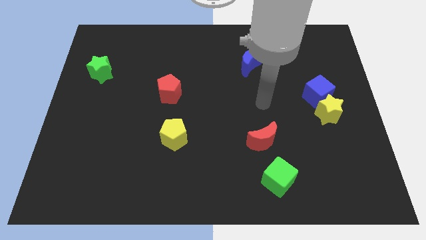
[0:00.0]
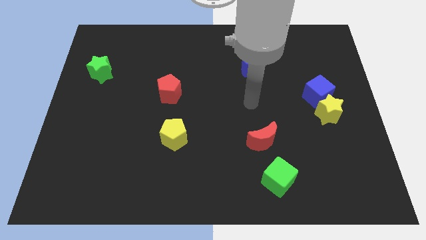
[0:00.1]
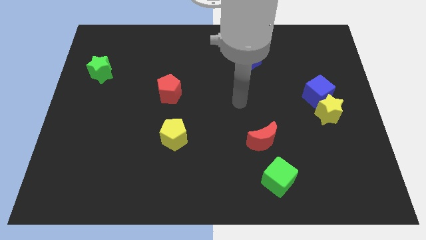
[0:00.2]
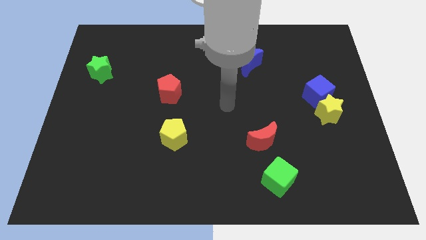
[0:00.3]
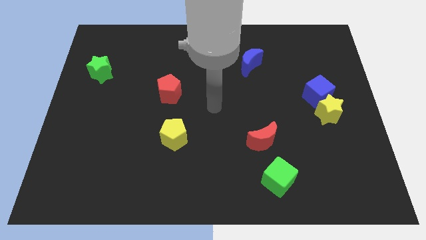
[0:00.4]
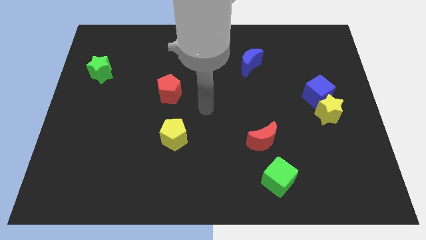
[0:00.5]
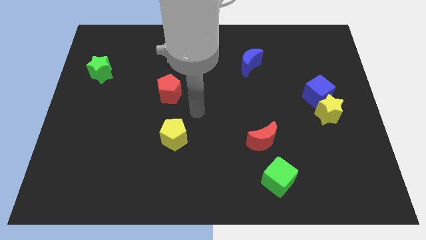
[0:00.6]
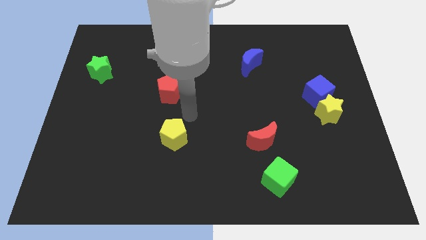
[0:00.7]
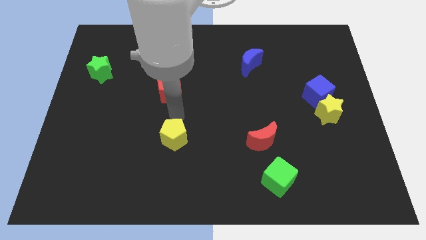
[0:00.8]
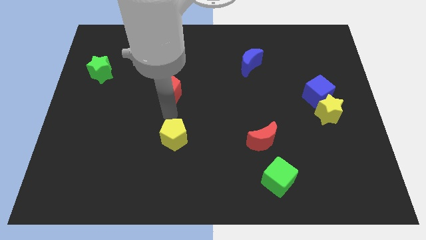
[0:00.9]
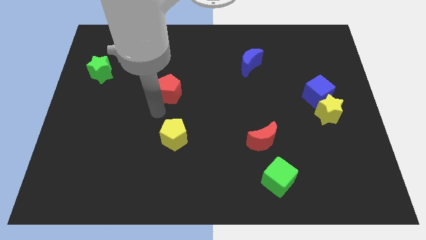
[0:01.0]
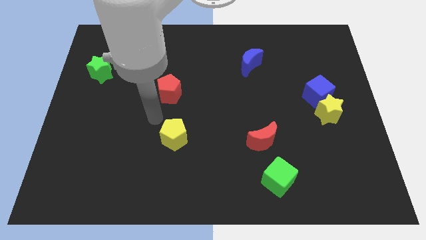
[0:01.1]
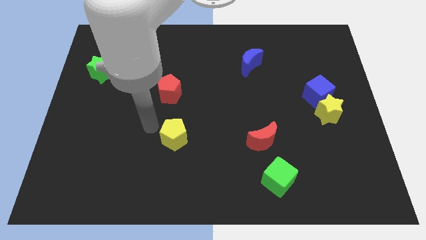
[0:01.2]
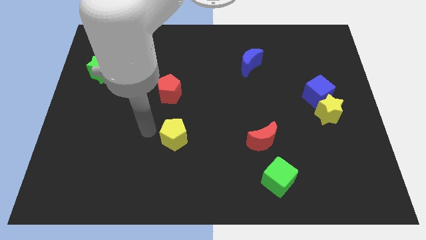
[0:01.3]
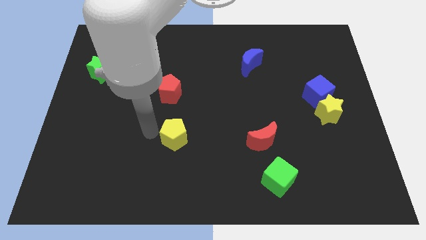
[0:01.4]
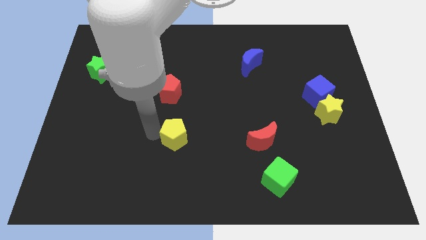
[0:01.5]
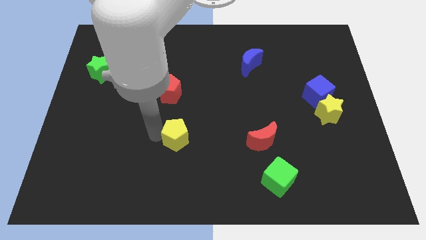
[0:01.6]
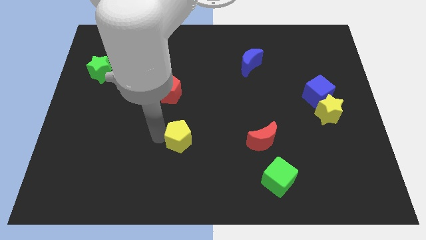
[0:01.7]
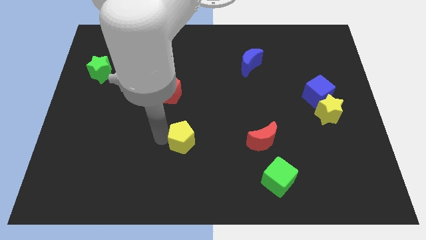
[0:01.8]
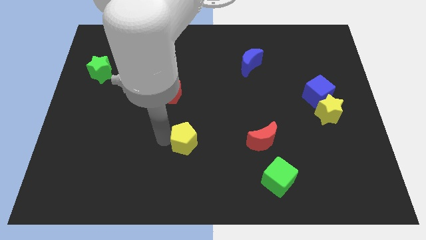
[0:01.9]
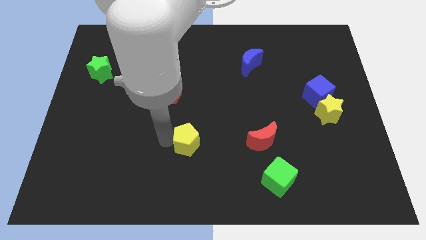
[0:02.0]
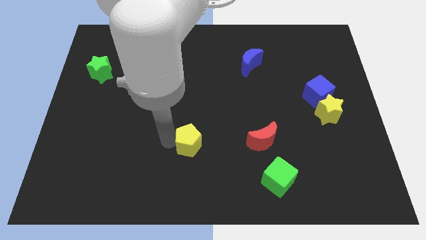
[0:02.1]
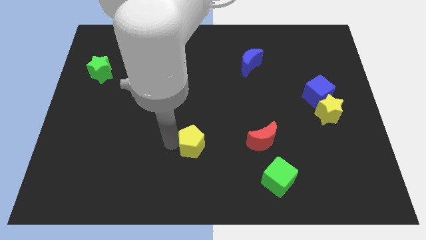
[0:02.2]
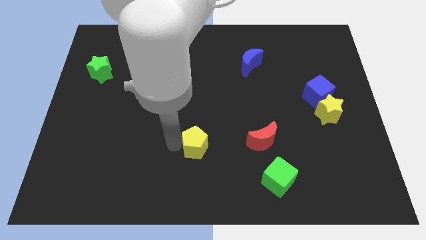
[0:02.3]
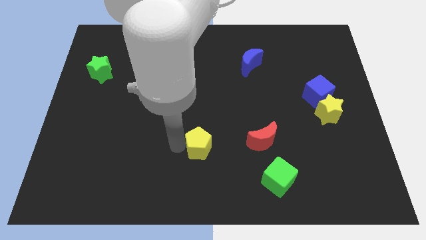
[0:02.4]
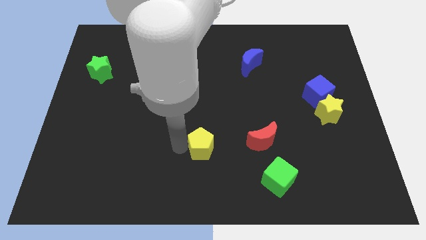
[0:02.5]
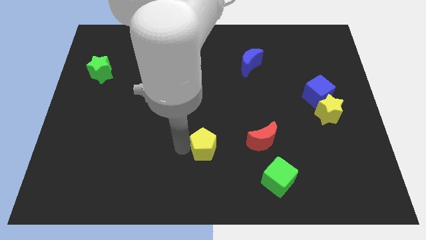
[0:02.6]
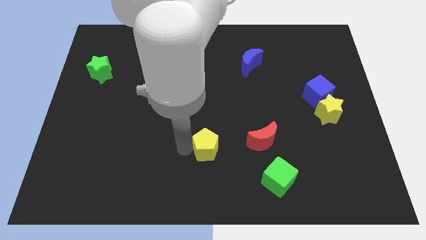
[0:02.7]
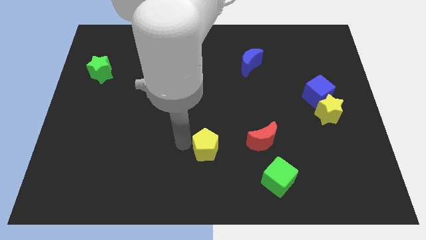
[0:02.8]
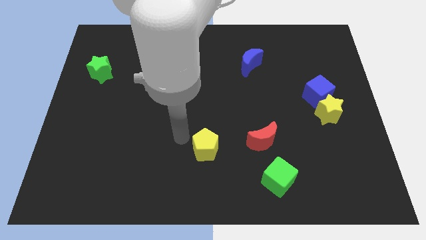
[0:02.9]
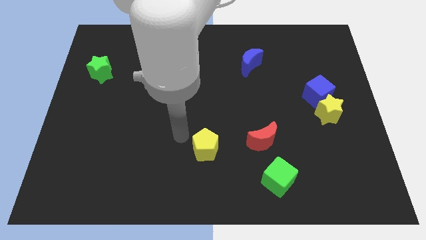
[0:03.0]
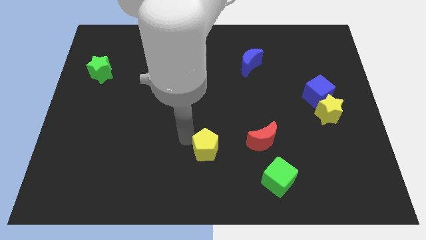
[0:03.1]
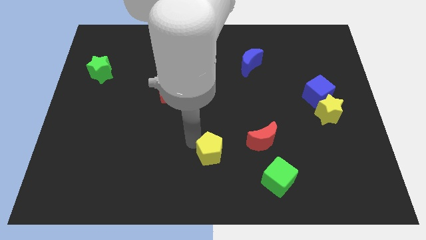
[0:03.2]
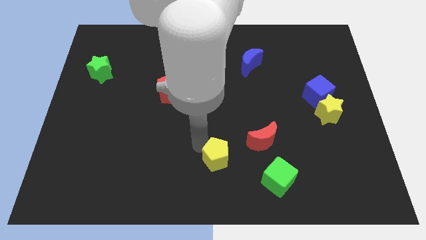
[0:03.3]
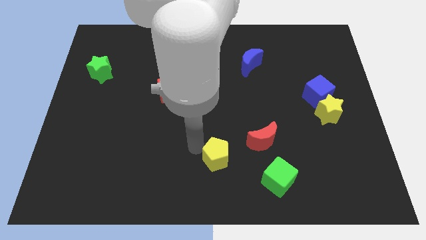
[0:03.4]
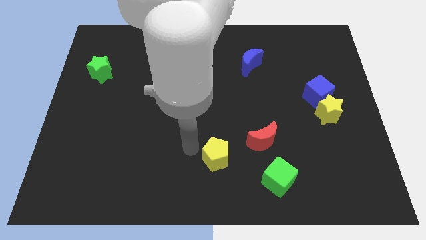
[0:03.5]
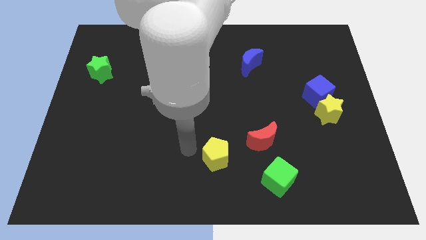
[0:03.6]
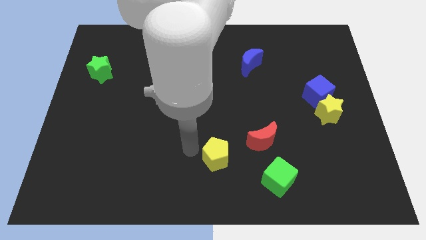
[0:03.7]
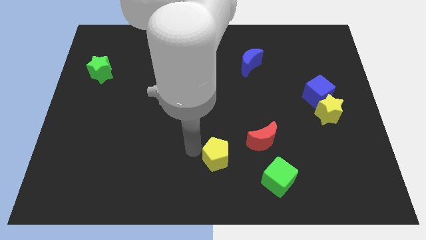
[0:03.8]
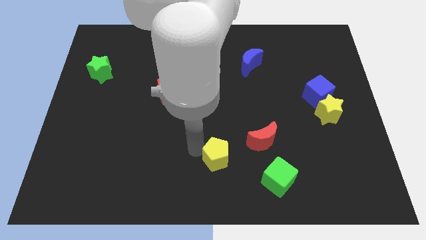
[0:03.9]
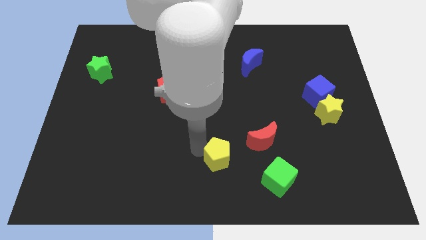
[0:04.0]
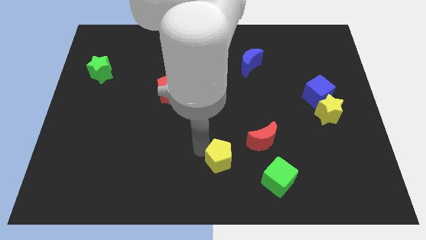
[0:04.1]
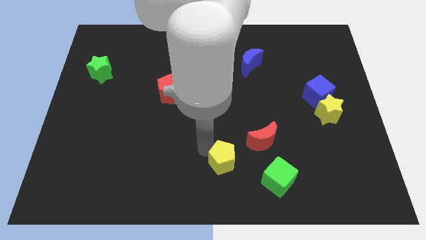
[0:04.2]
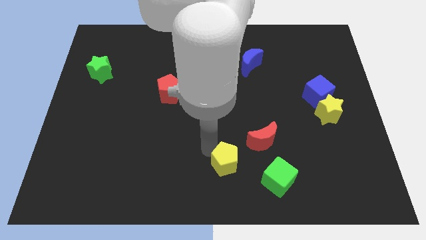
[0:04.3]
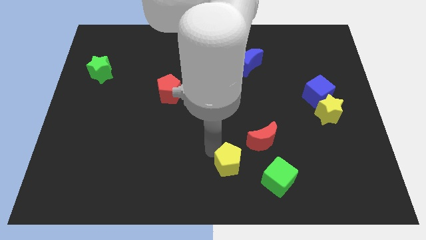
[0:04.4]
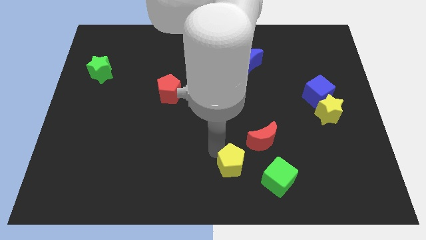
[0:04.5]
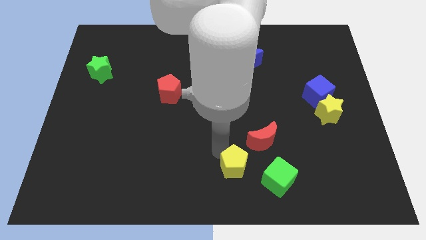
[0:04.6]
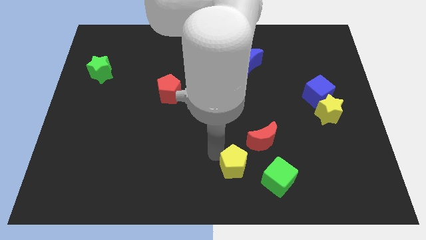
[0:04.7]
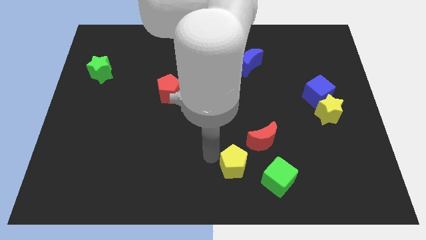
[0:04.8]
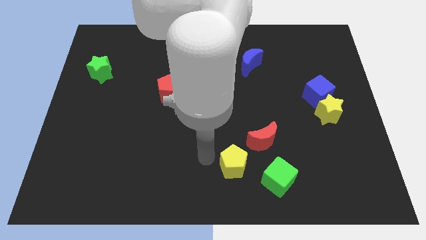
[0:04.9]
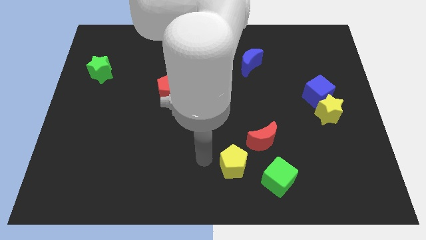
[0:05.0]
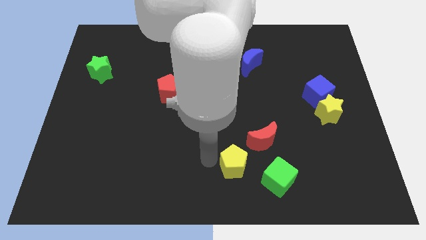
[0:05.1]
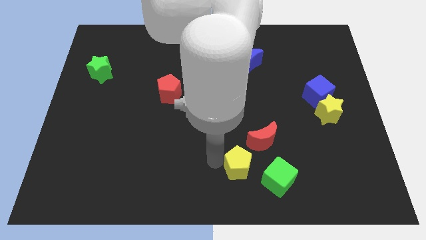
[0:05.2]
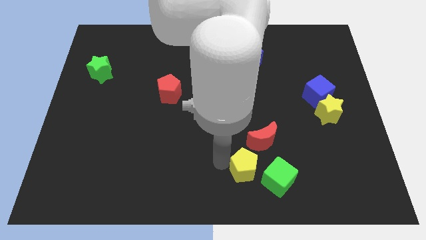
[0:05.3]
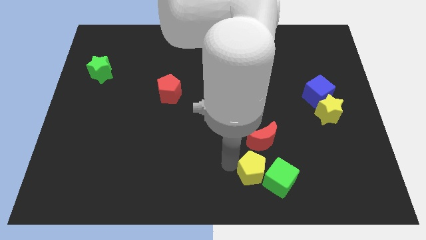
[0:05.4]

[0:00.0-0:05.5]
put the yellow pentagon to the green cube

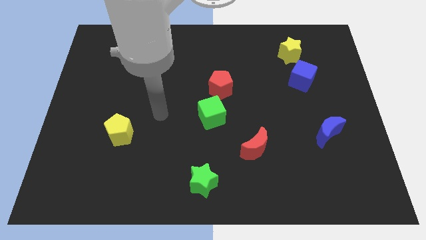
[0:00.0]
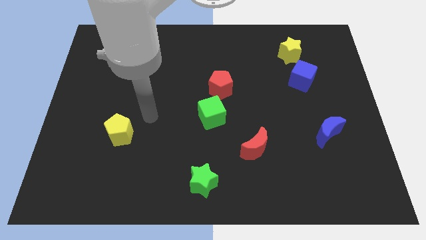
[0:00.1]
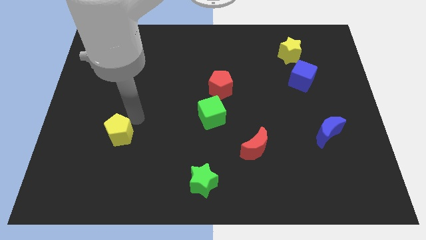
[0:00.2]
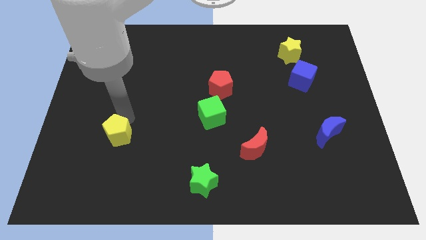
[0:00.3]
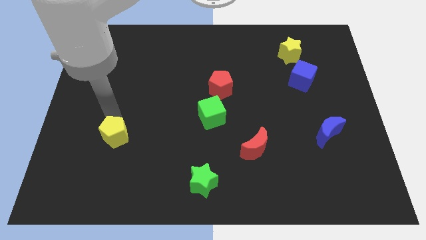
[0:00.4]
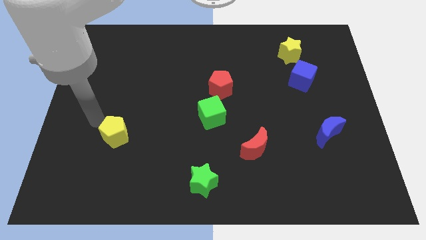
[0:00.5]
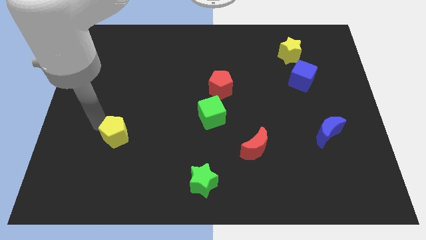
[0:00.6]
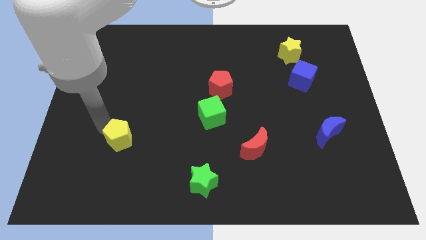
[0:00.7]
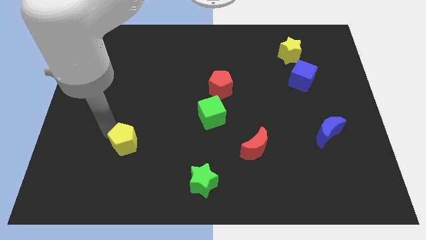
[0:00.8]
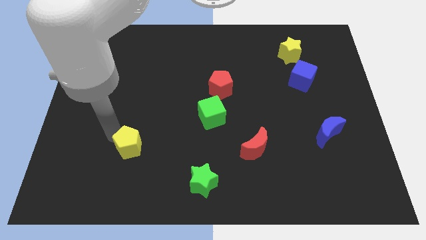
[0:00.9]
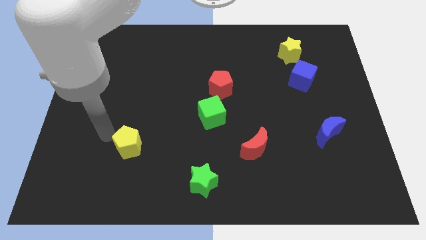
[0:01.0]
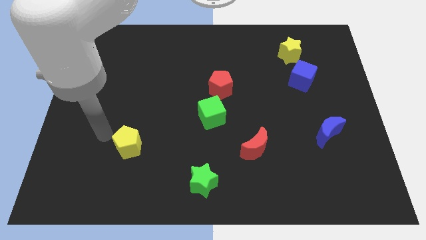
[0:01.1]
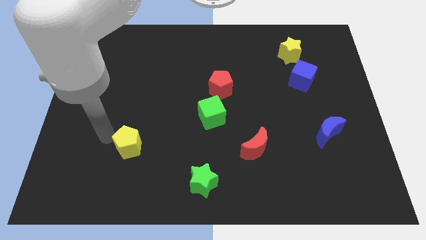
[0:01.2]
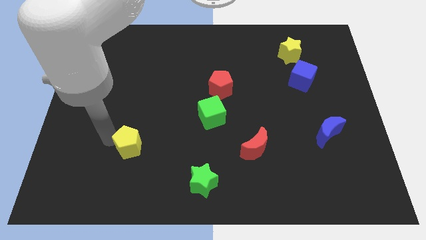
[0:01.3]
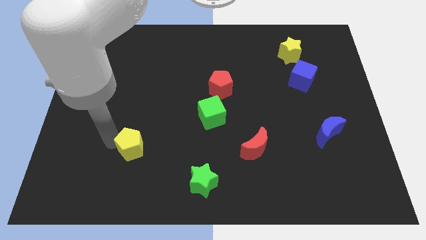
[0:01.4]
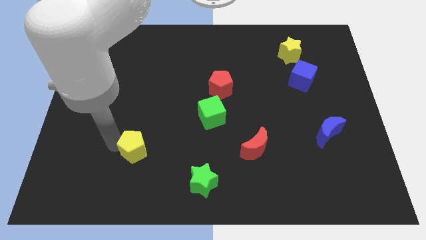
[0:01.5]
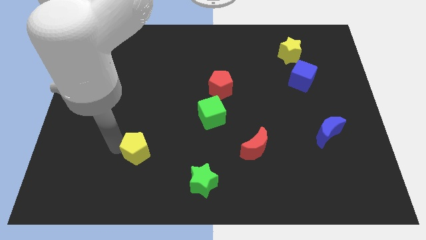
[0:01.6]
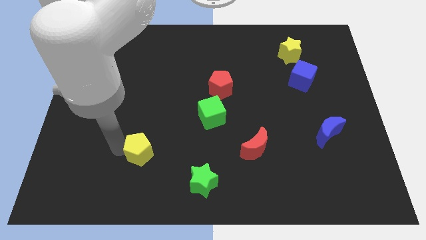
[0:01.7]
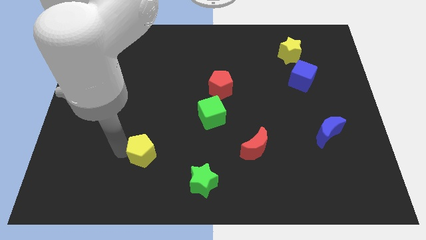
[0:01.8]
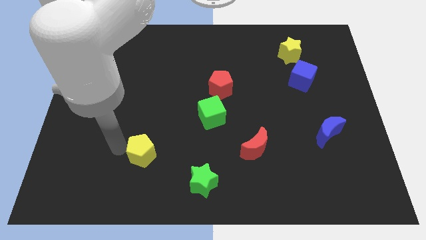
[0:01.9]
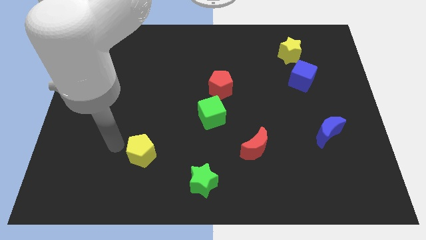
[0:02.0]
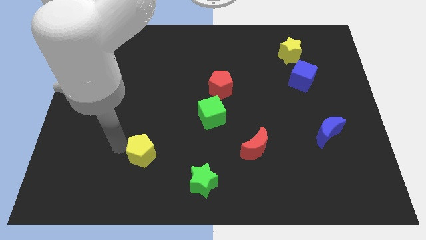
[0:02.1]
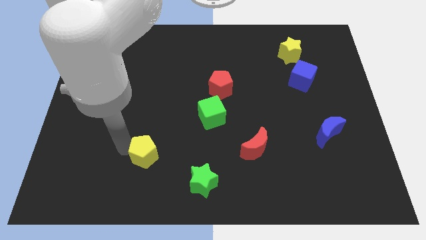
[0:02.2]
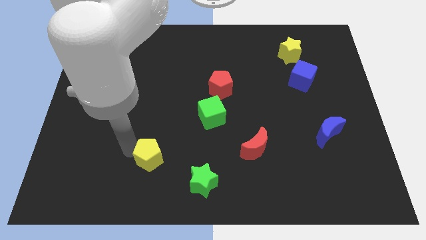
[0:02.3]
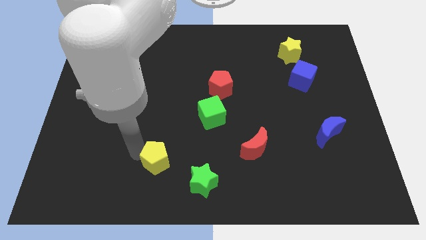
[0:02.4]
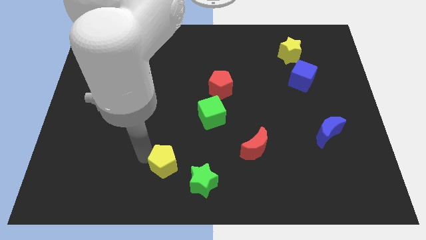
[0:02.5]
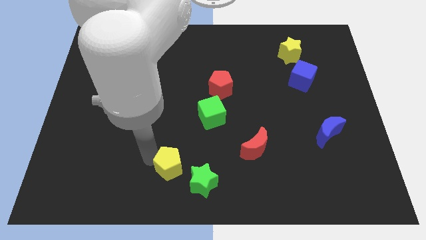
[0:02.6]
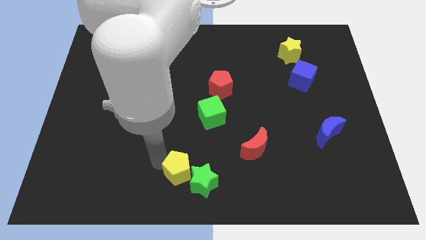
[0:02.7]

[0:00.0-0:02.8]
put the yellow pentagon next to the green star

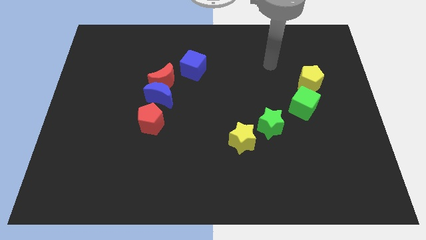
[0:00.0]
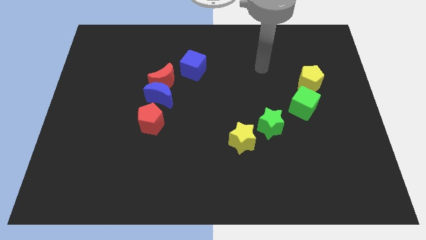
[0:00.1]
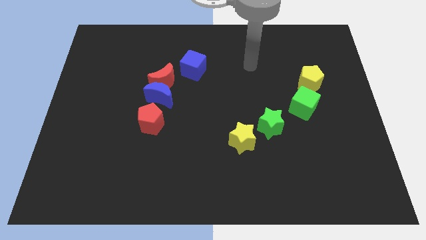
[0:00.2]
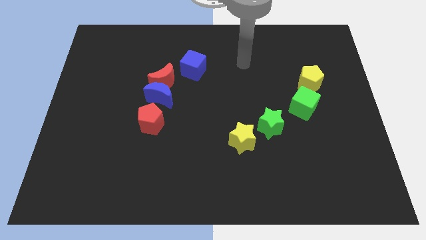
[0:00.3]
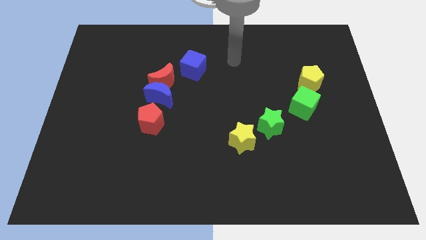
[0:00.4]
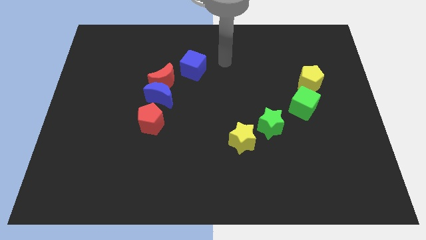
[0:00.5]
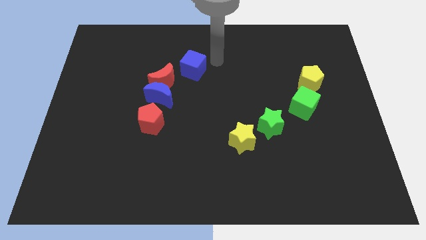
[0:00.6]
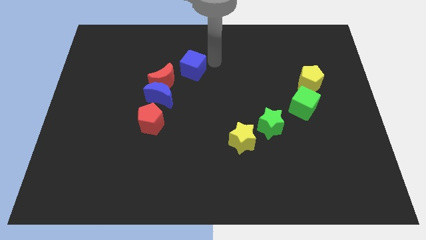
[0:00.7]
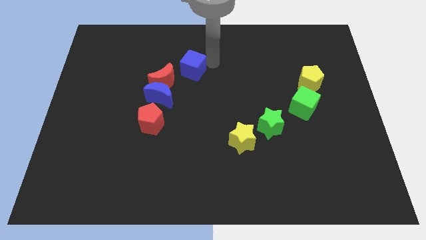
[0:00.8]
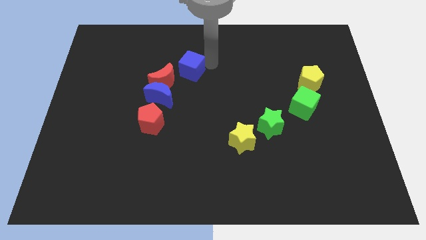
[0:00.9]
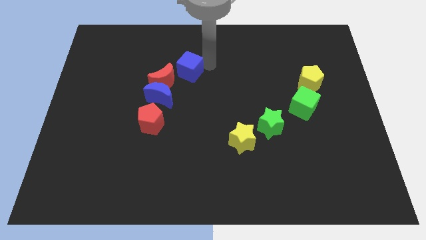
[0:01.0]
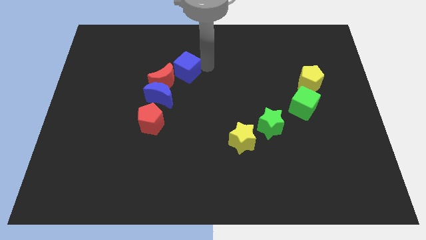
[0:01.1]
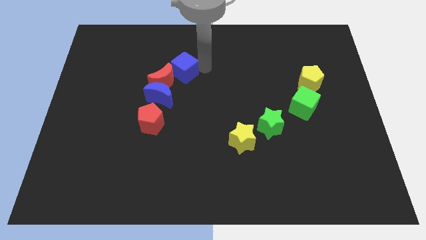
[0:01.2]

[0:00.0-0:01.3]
push the blue cube next to the red moon
